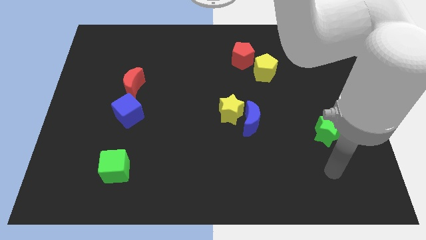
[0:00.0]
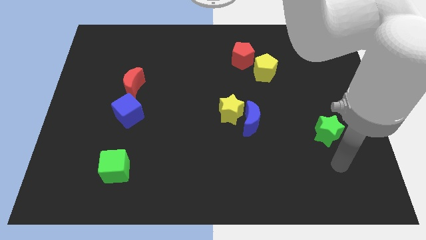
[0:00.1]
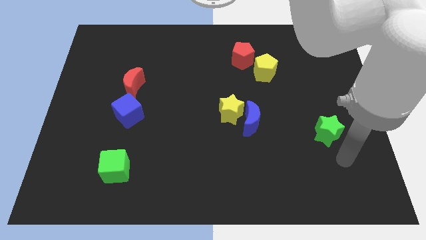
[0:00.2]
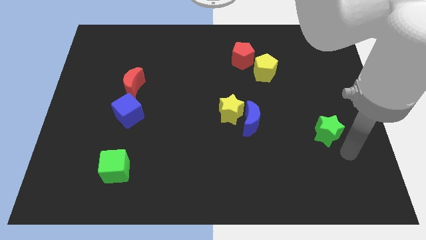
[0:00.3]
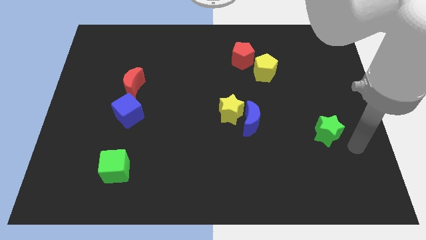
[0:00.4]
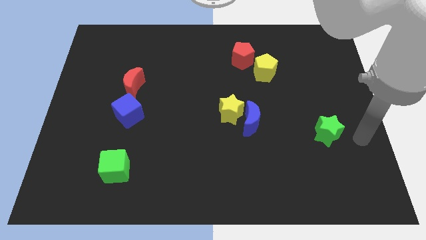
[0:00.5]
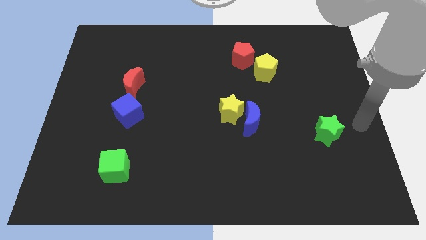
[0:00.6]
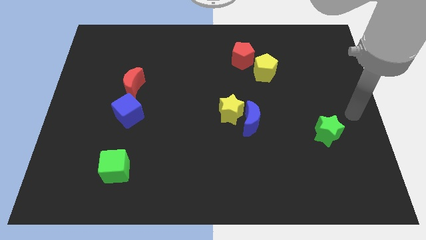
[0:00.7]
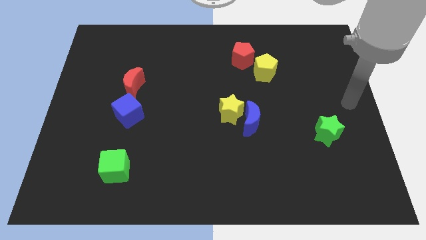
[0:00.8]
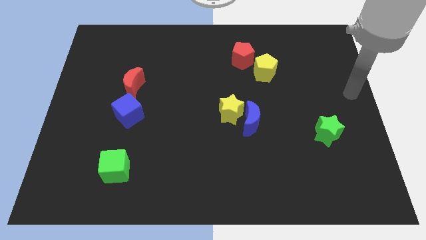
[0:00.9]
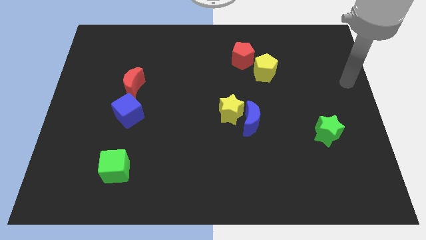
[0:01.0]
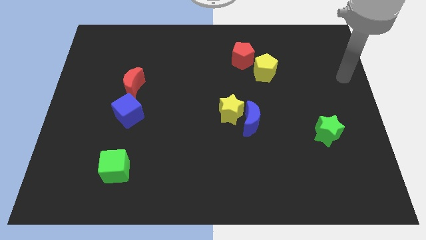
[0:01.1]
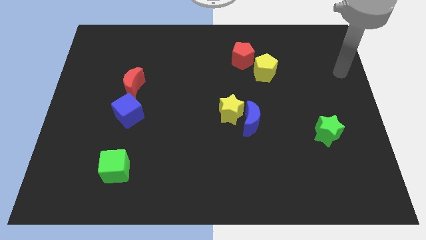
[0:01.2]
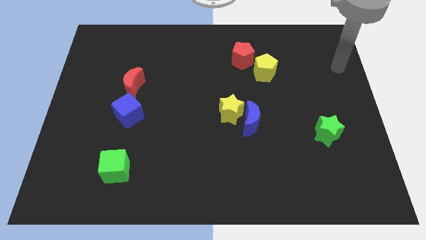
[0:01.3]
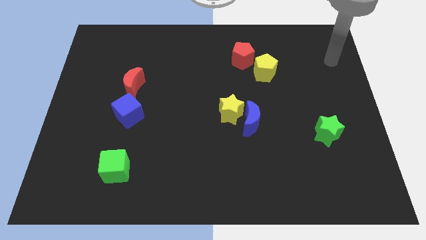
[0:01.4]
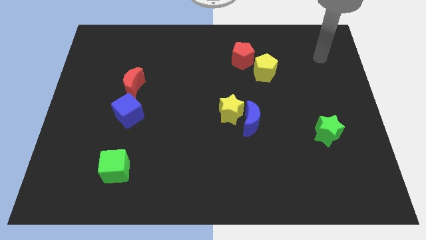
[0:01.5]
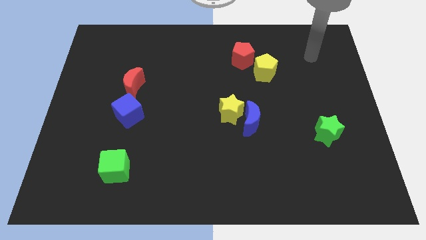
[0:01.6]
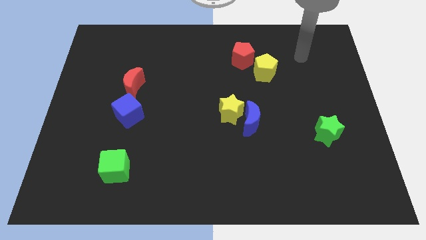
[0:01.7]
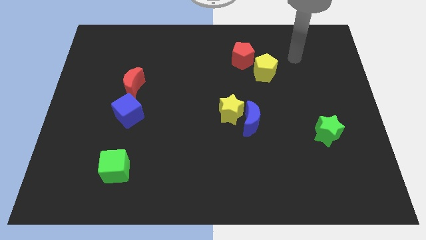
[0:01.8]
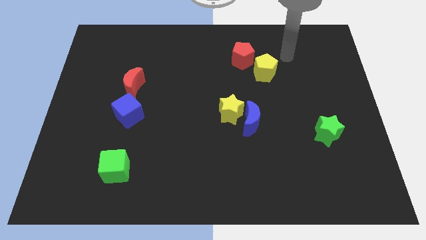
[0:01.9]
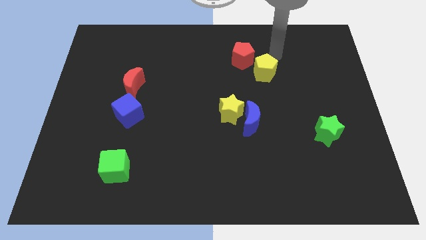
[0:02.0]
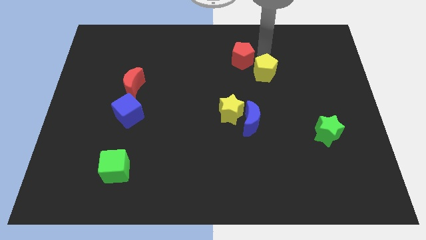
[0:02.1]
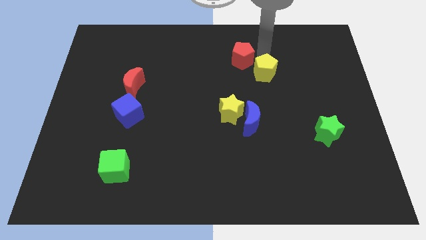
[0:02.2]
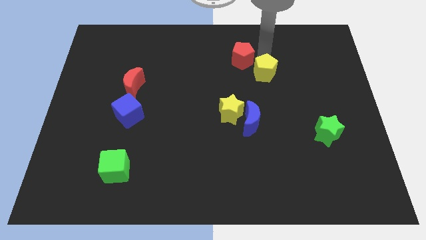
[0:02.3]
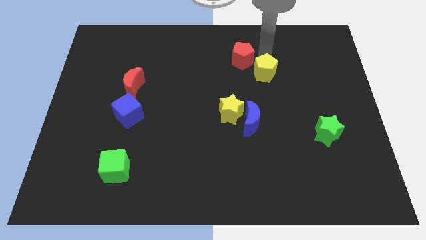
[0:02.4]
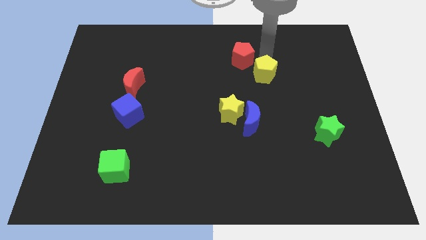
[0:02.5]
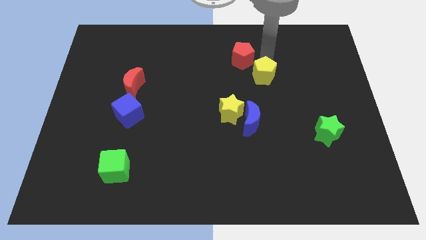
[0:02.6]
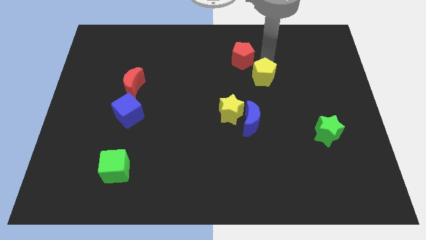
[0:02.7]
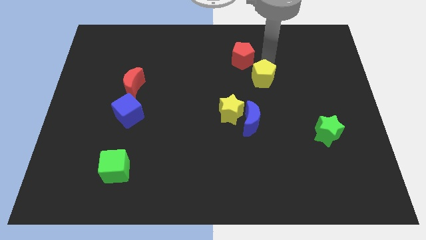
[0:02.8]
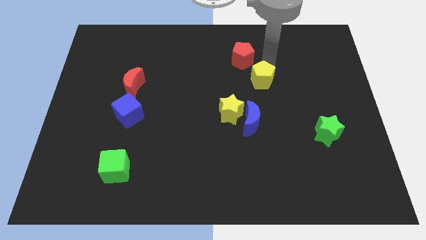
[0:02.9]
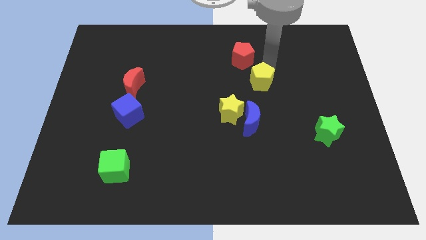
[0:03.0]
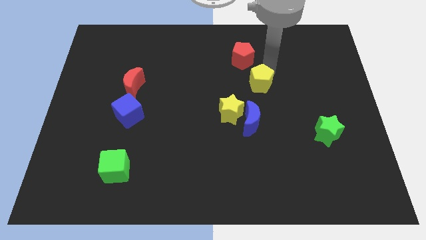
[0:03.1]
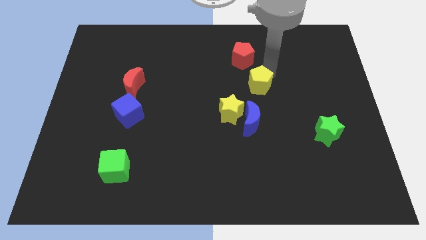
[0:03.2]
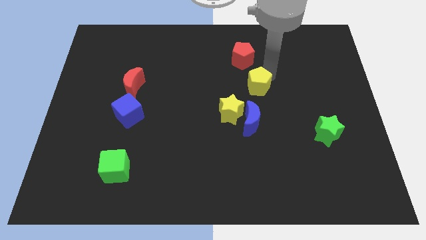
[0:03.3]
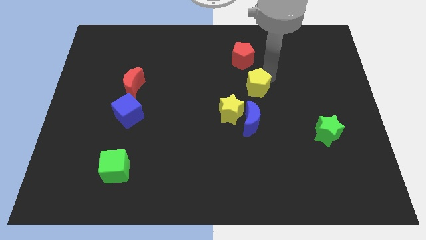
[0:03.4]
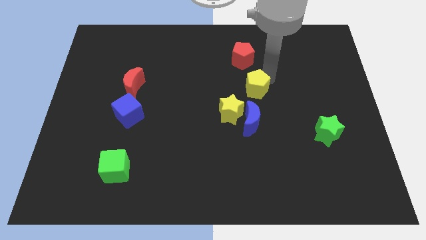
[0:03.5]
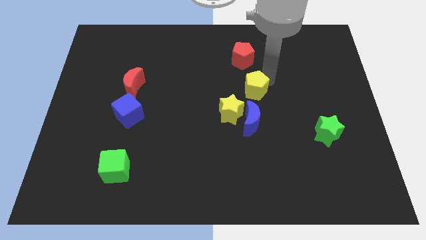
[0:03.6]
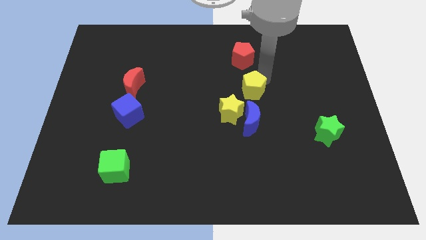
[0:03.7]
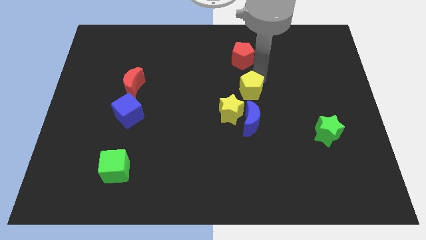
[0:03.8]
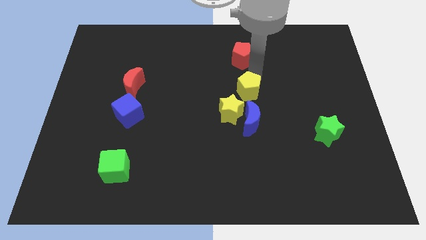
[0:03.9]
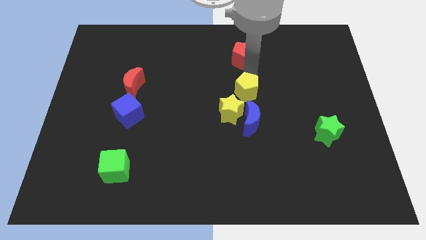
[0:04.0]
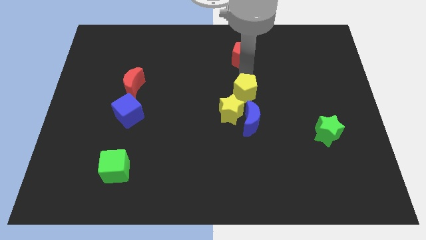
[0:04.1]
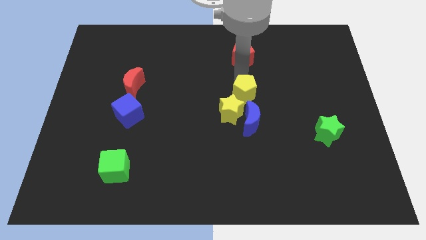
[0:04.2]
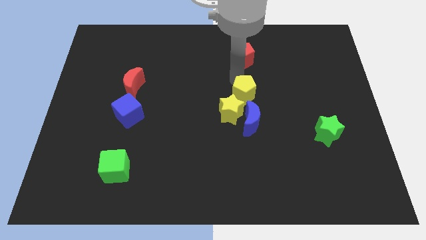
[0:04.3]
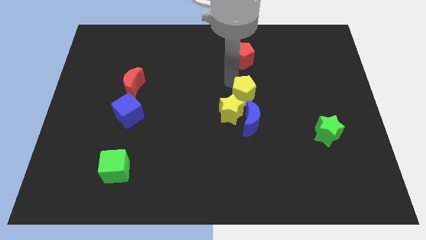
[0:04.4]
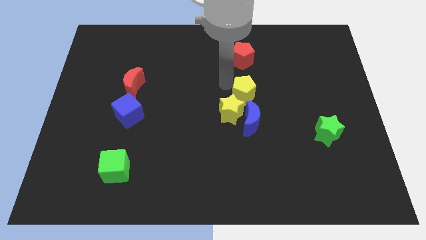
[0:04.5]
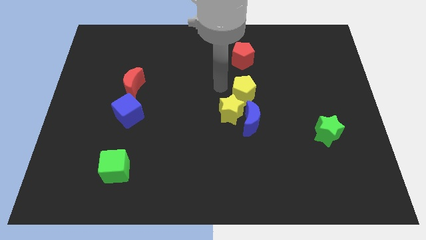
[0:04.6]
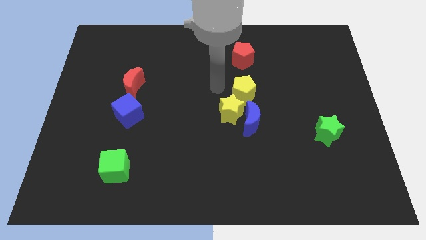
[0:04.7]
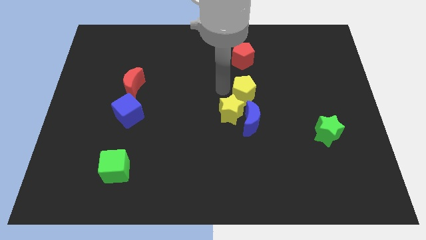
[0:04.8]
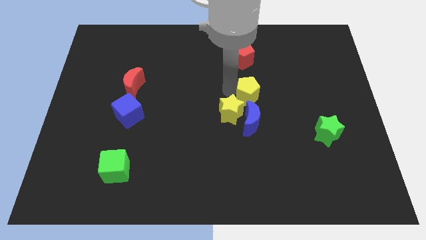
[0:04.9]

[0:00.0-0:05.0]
push the yellow pentagon downwards a little bit

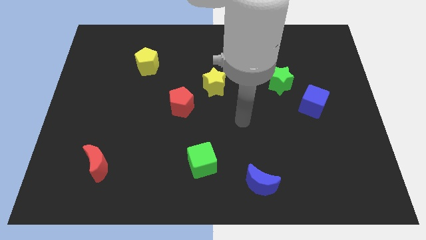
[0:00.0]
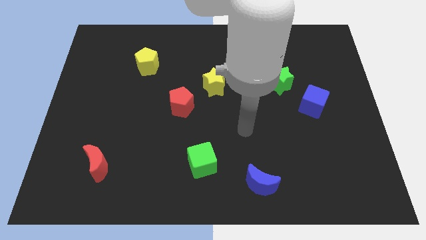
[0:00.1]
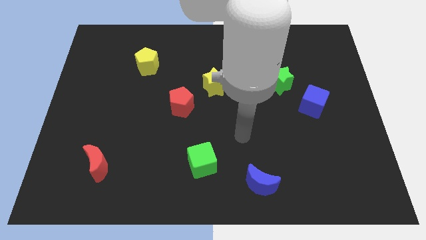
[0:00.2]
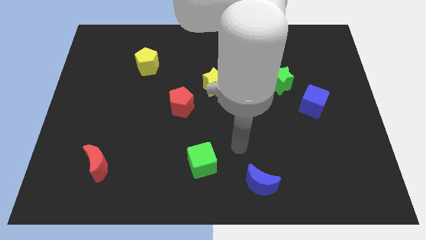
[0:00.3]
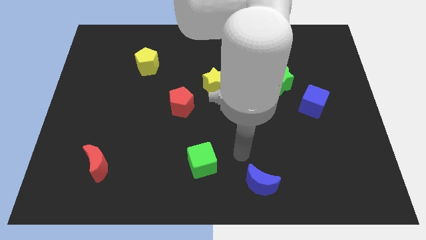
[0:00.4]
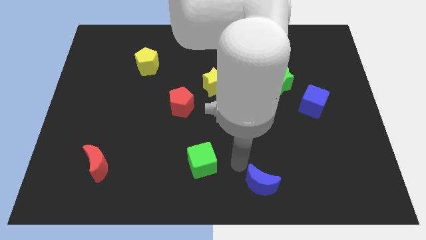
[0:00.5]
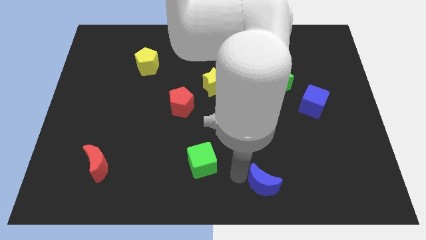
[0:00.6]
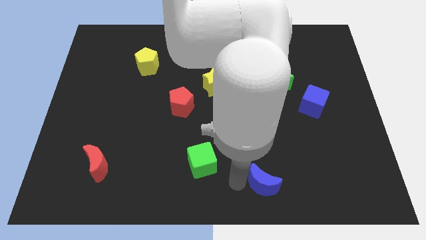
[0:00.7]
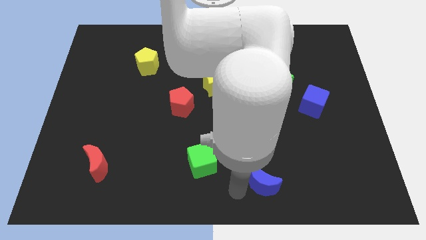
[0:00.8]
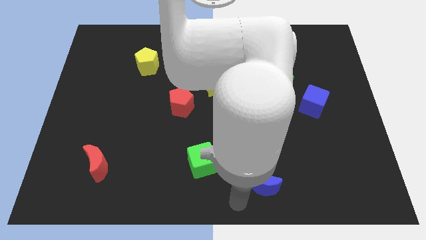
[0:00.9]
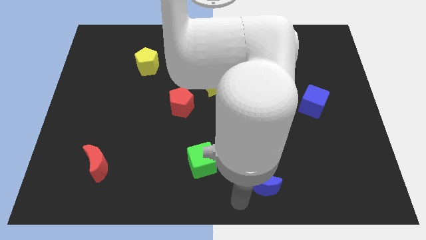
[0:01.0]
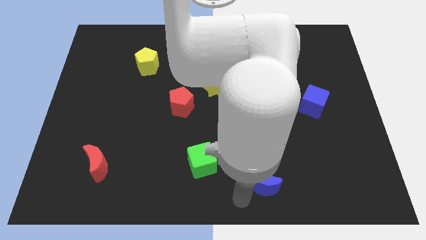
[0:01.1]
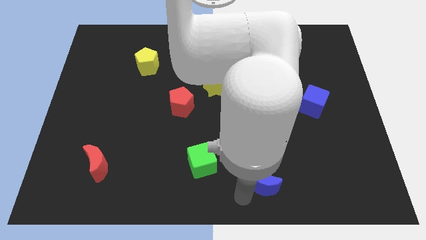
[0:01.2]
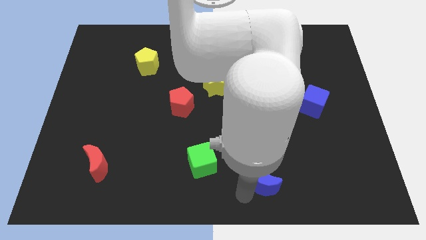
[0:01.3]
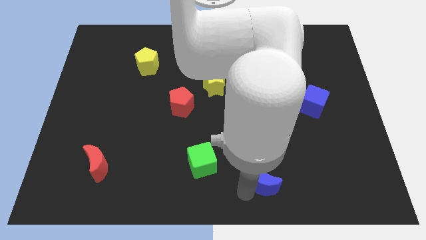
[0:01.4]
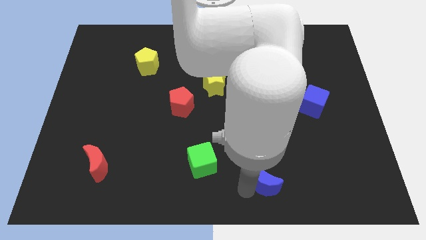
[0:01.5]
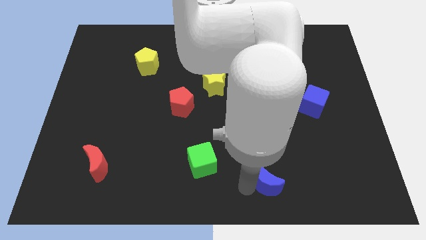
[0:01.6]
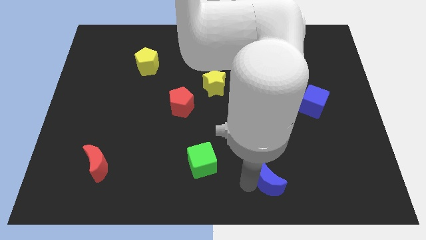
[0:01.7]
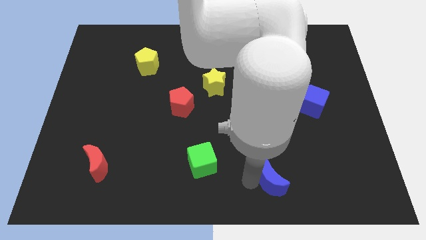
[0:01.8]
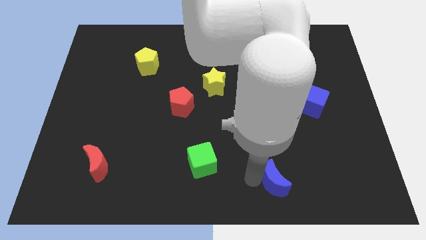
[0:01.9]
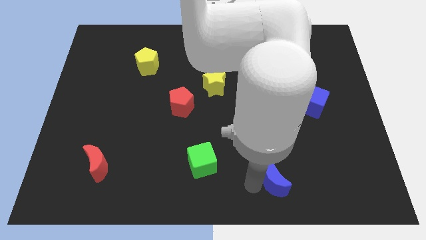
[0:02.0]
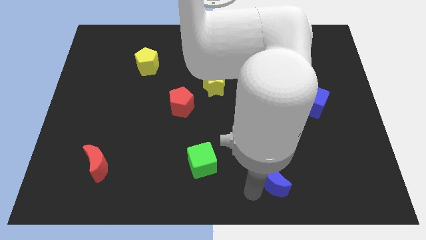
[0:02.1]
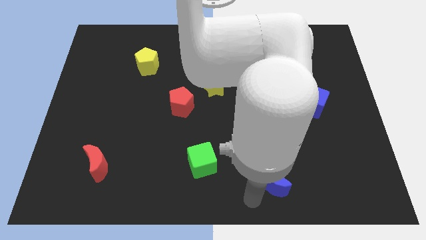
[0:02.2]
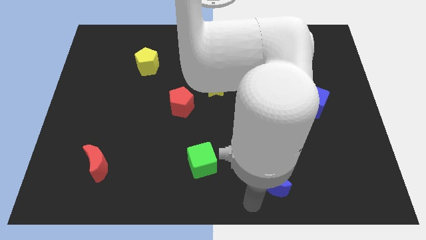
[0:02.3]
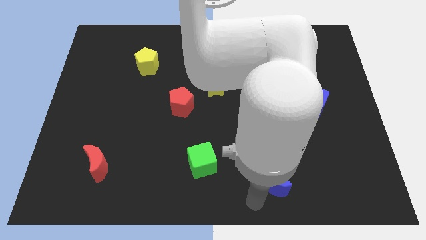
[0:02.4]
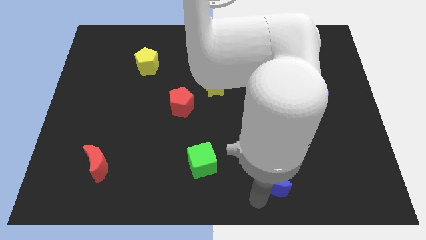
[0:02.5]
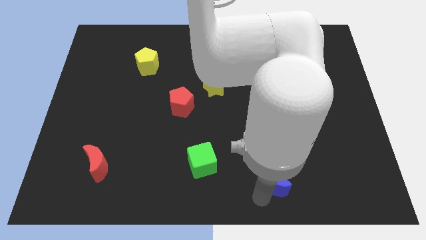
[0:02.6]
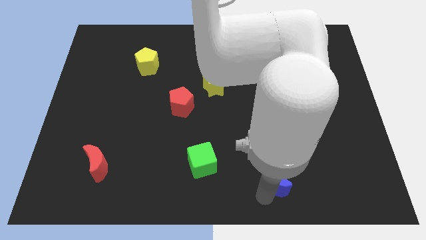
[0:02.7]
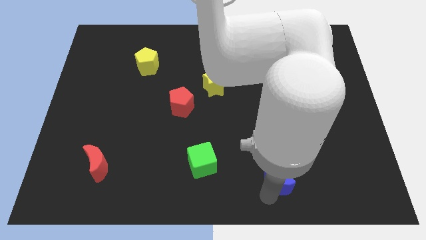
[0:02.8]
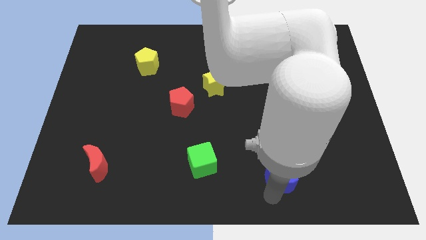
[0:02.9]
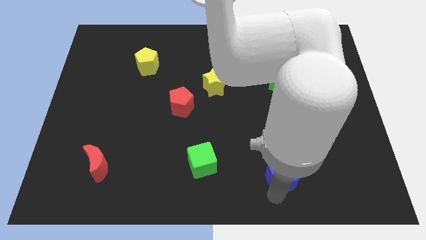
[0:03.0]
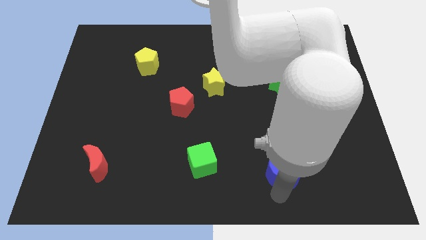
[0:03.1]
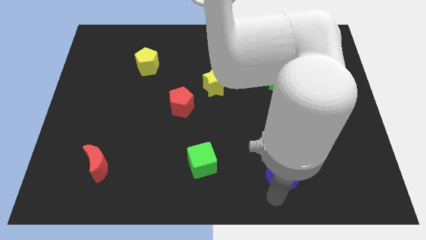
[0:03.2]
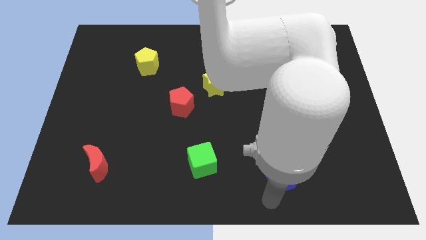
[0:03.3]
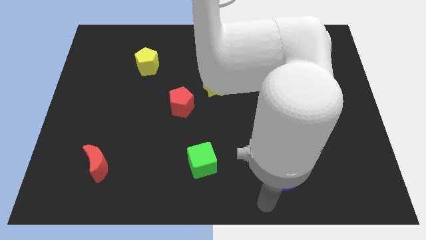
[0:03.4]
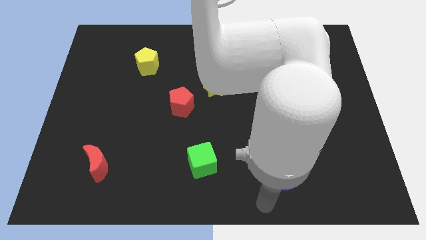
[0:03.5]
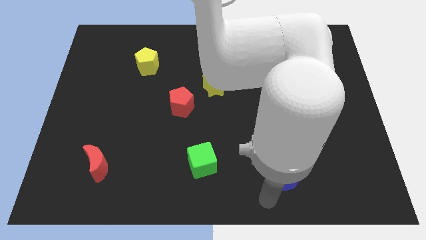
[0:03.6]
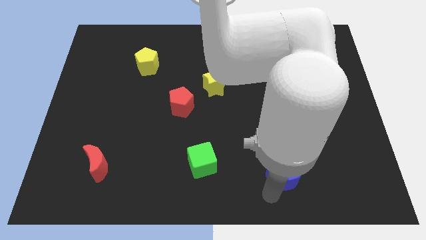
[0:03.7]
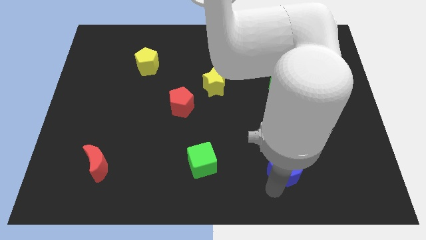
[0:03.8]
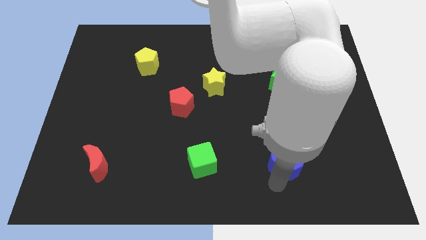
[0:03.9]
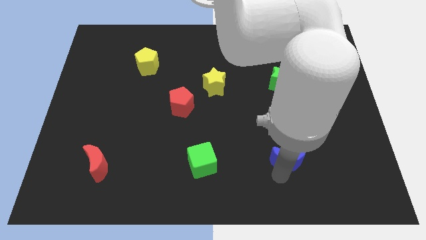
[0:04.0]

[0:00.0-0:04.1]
slightly push the blue moon up and then right
